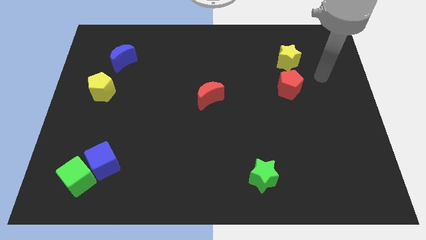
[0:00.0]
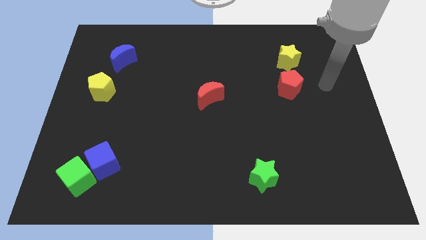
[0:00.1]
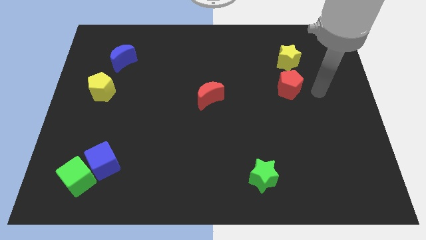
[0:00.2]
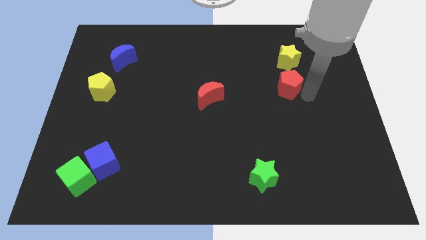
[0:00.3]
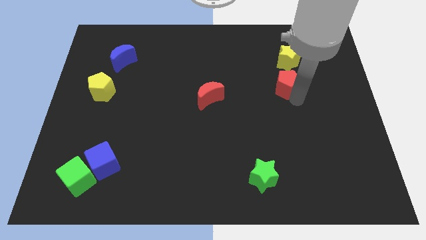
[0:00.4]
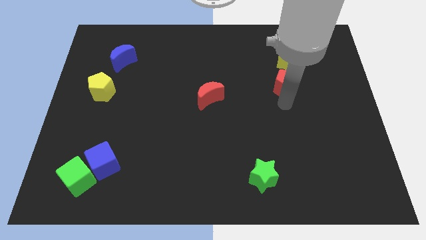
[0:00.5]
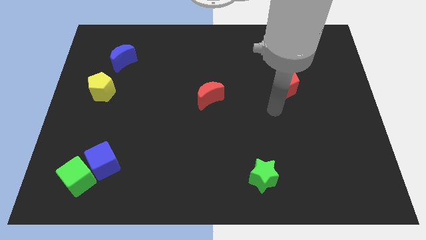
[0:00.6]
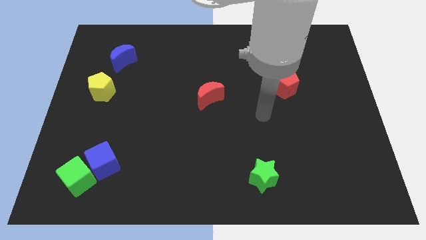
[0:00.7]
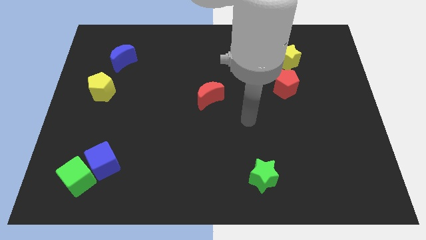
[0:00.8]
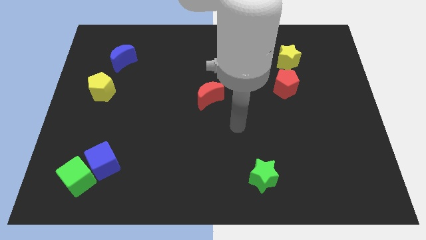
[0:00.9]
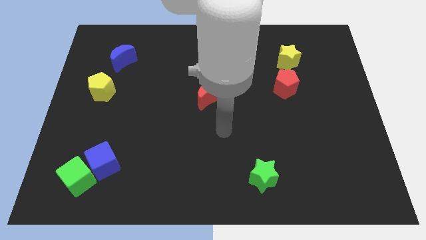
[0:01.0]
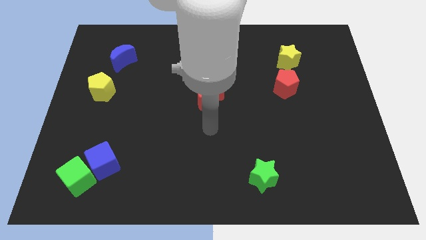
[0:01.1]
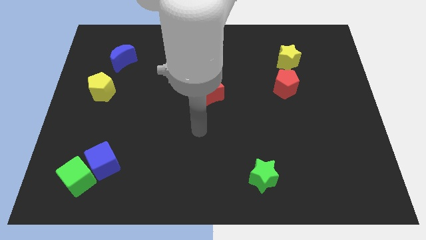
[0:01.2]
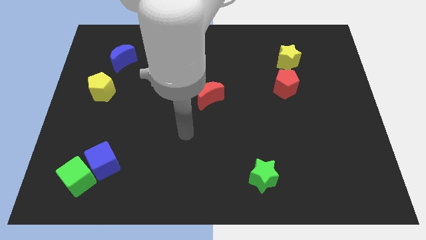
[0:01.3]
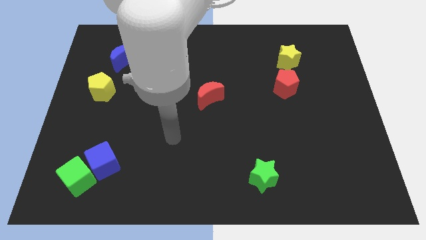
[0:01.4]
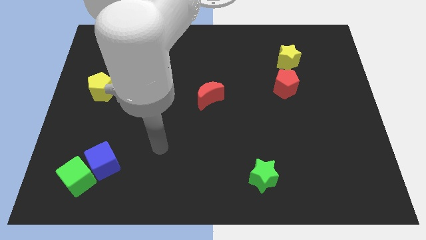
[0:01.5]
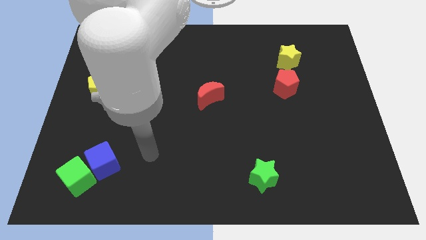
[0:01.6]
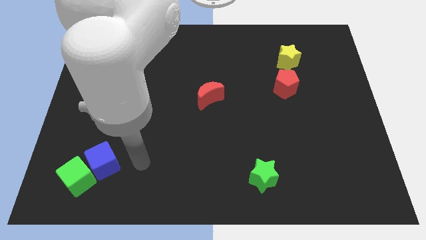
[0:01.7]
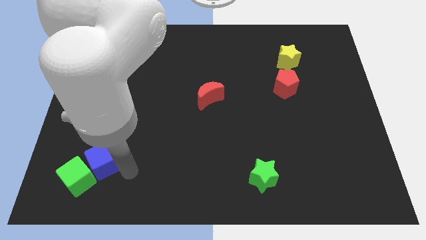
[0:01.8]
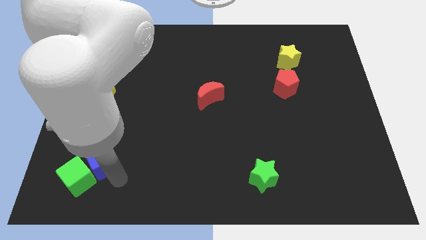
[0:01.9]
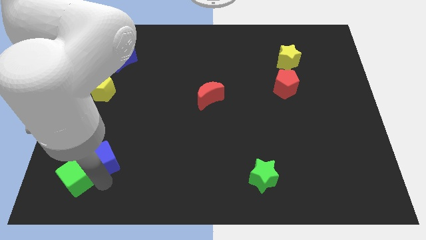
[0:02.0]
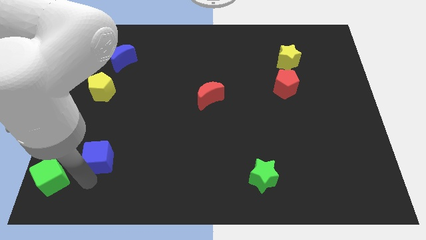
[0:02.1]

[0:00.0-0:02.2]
separate the blue cube from the green cube

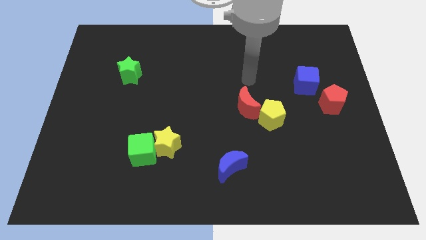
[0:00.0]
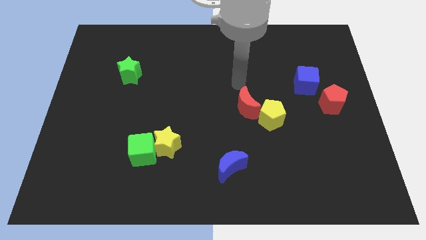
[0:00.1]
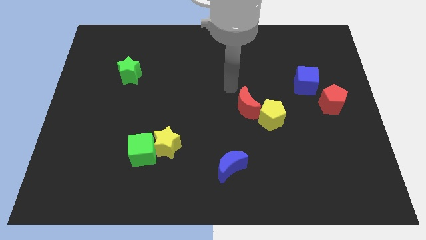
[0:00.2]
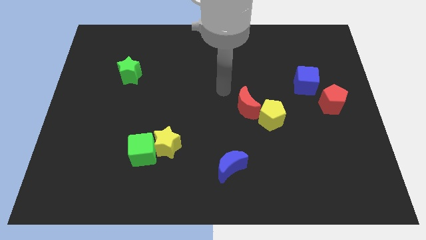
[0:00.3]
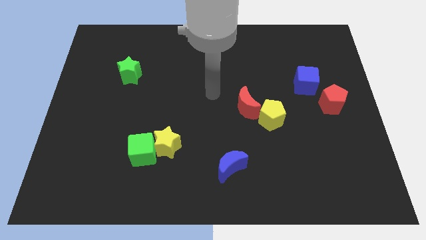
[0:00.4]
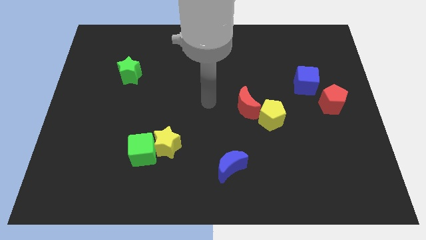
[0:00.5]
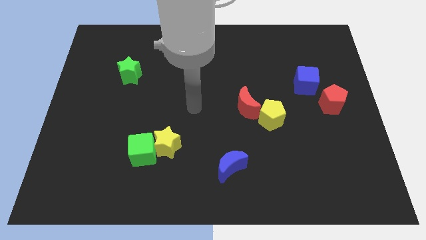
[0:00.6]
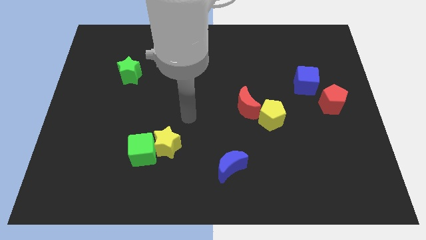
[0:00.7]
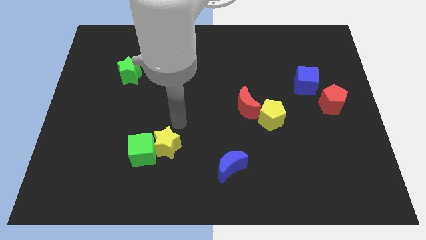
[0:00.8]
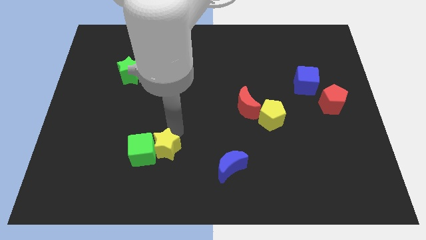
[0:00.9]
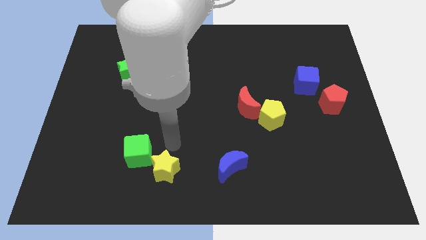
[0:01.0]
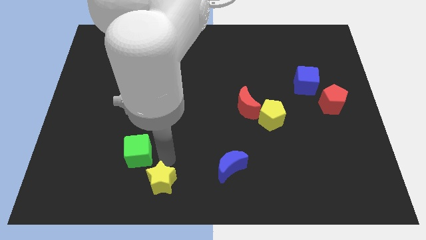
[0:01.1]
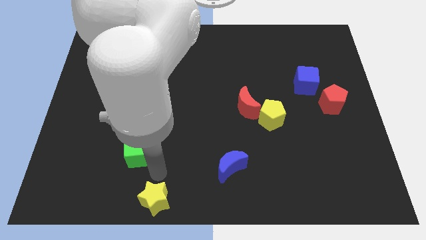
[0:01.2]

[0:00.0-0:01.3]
separate the green cube from the yellow star

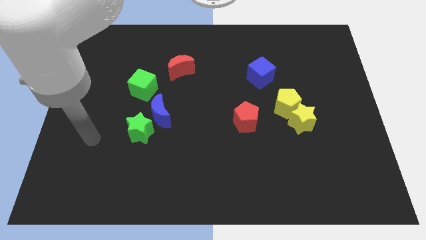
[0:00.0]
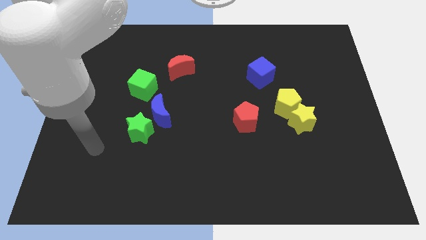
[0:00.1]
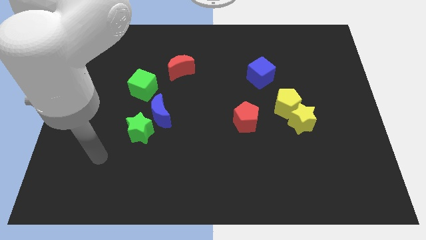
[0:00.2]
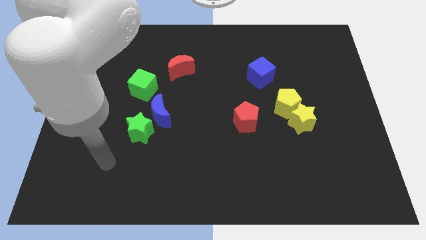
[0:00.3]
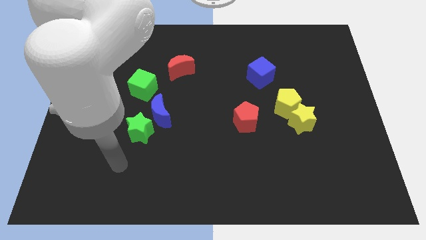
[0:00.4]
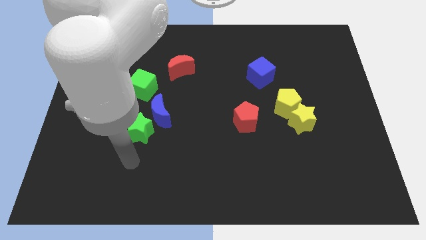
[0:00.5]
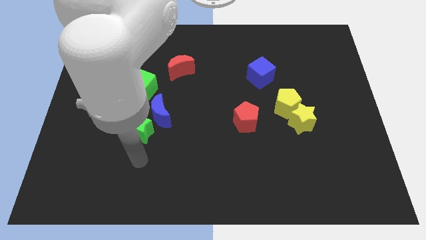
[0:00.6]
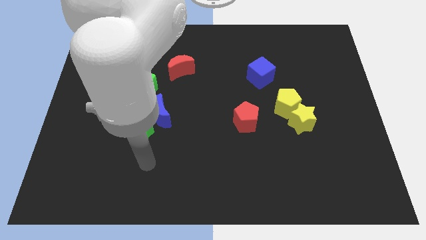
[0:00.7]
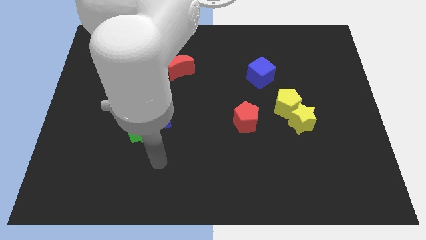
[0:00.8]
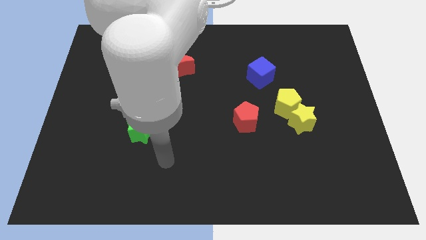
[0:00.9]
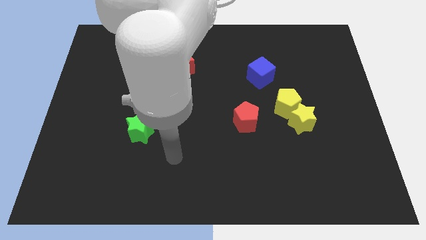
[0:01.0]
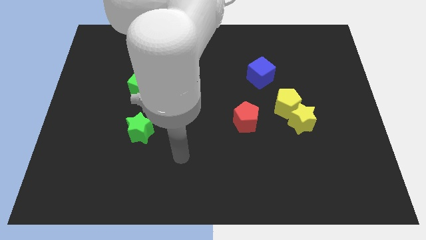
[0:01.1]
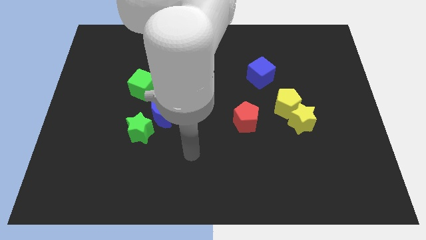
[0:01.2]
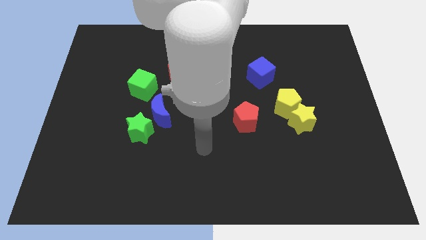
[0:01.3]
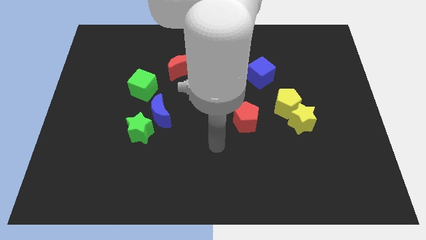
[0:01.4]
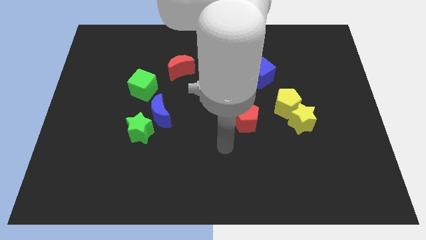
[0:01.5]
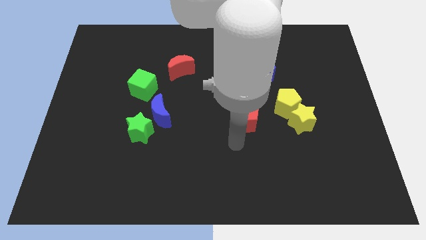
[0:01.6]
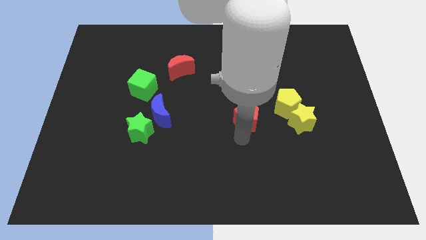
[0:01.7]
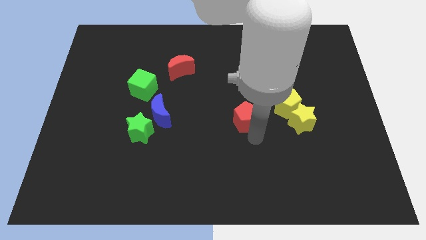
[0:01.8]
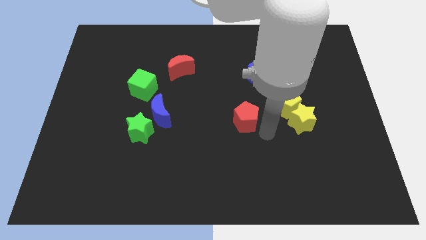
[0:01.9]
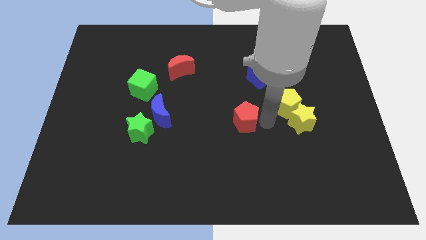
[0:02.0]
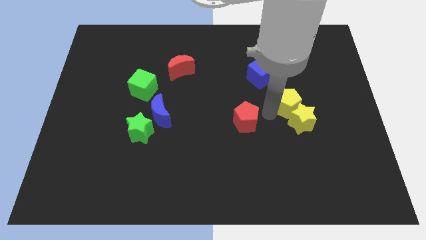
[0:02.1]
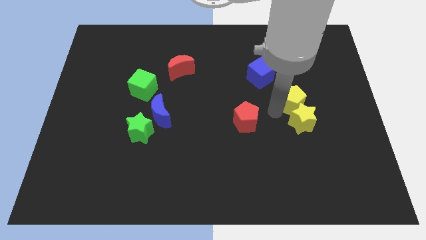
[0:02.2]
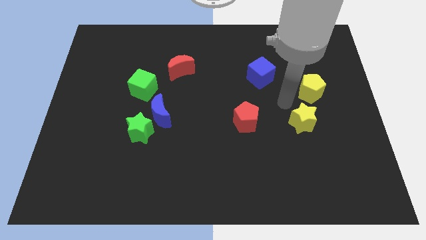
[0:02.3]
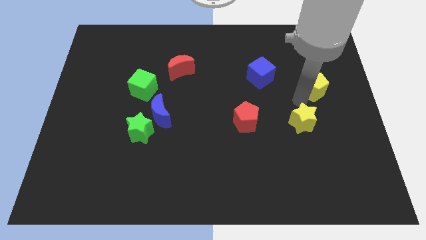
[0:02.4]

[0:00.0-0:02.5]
move the yellow star away from the yellow pentagon

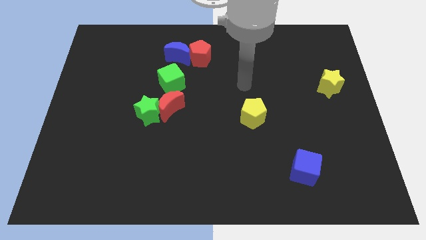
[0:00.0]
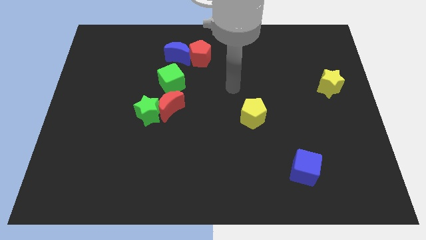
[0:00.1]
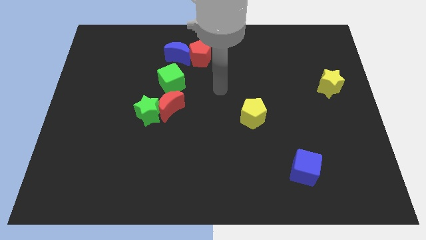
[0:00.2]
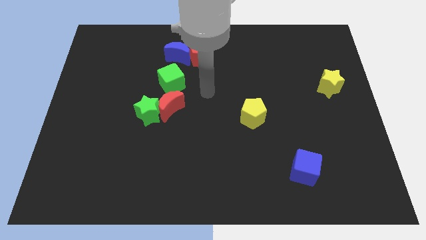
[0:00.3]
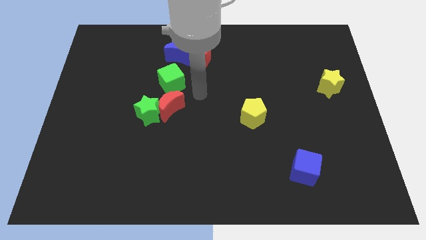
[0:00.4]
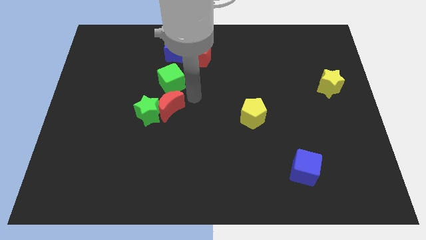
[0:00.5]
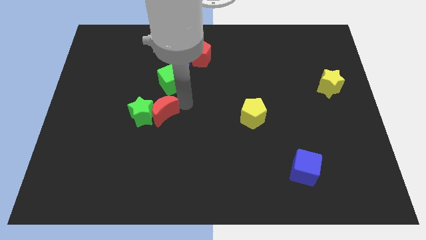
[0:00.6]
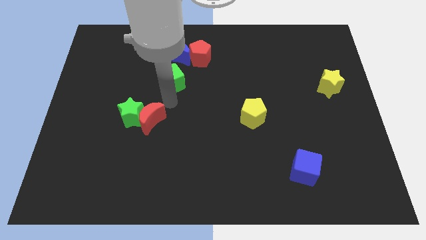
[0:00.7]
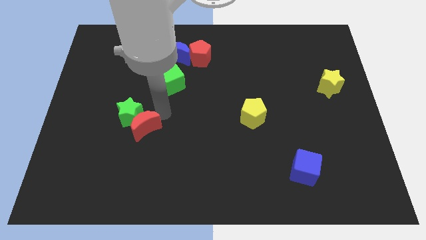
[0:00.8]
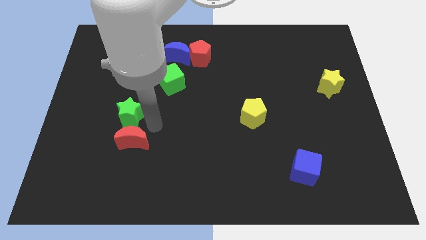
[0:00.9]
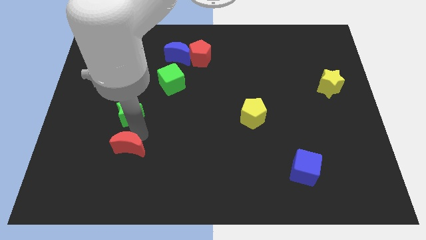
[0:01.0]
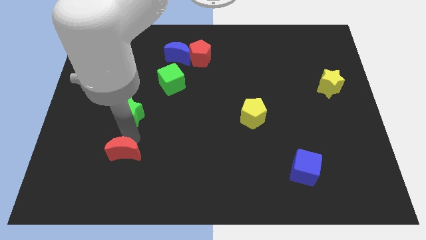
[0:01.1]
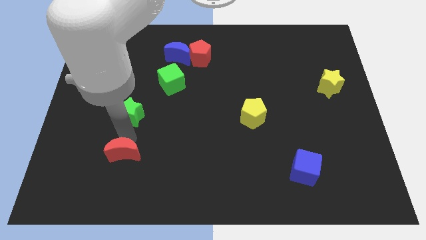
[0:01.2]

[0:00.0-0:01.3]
pull the green star apart from the red moon

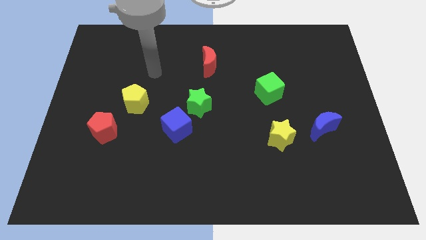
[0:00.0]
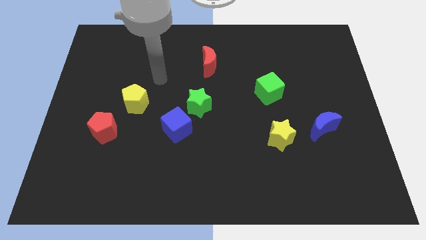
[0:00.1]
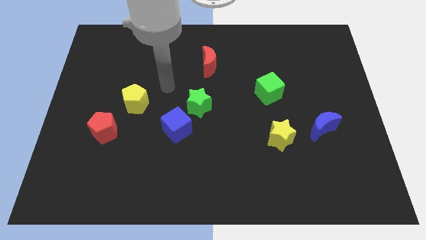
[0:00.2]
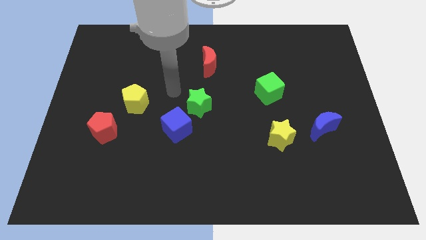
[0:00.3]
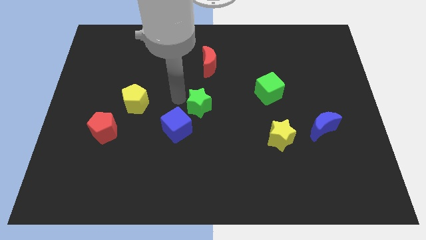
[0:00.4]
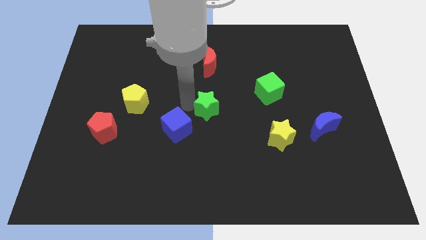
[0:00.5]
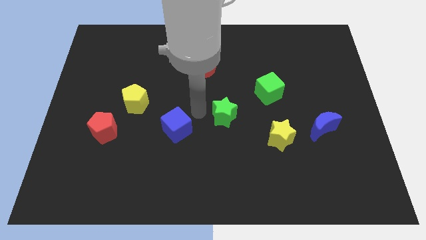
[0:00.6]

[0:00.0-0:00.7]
separate the blue cube from the green star

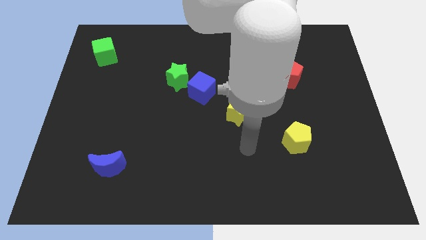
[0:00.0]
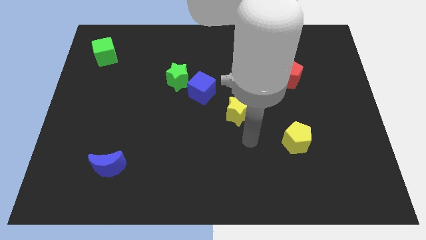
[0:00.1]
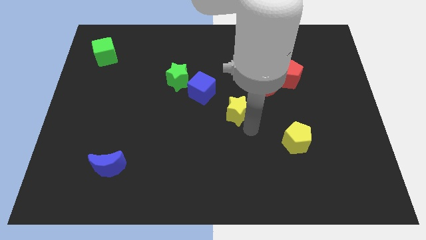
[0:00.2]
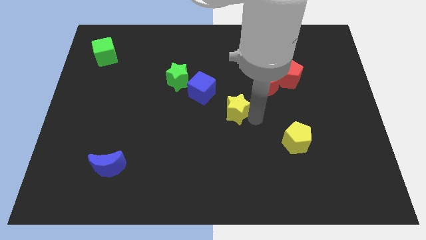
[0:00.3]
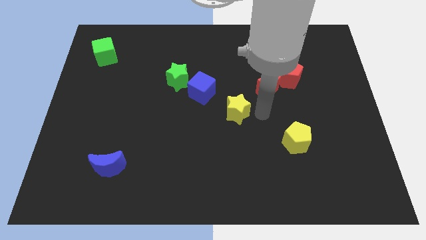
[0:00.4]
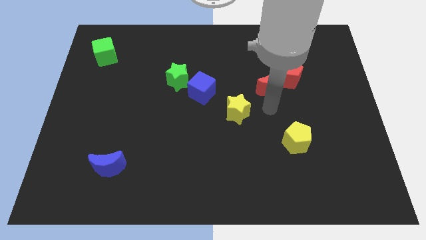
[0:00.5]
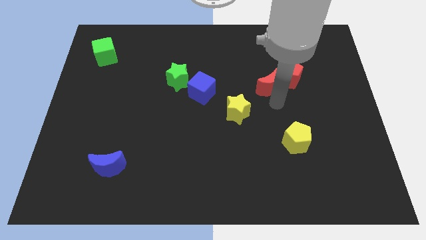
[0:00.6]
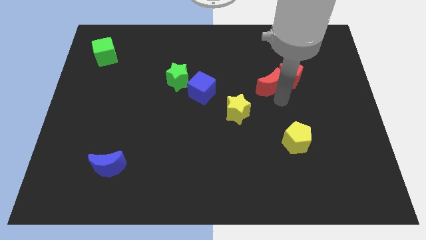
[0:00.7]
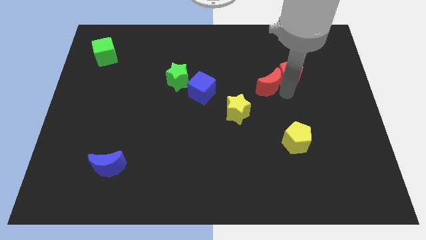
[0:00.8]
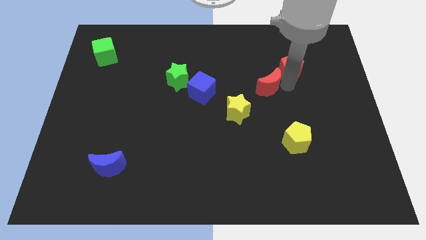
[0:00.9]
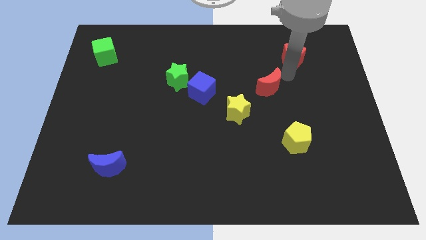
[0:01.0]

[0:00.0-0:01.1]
separate the red moon from the red pentagon

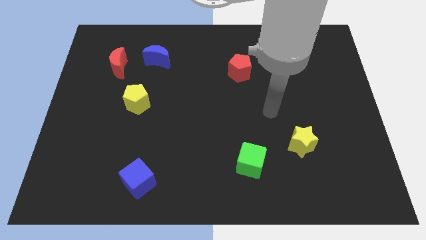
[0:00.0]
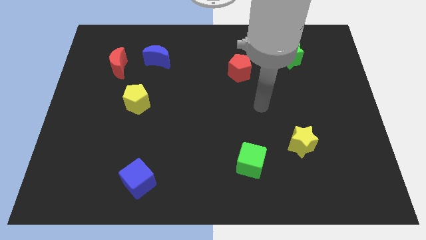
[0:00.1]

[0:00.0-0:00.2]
separate the red moon from the blue moon

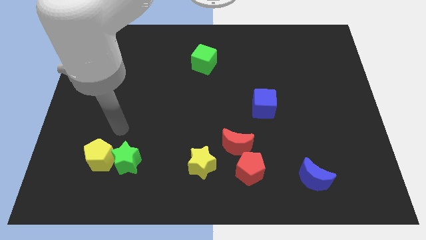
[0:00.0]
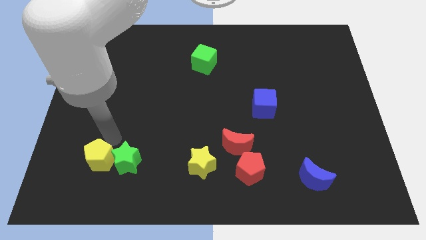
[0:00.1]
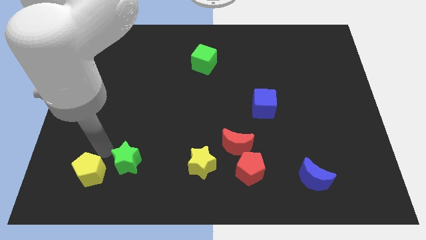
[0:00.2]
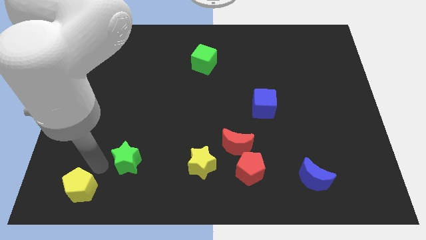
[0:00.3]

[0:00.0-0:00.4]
pull the green star apart from the yellow pentagon
